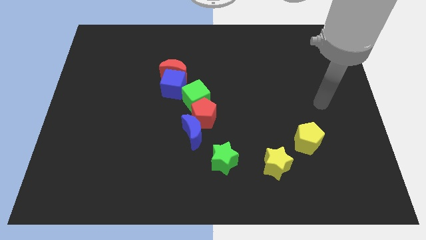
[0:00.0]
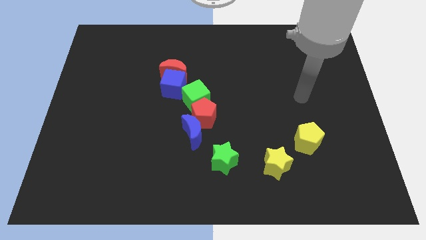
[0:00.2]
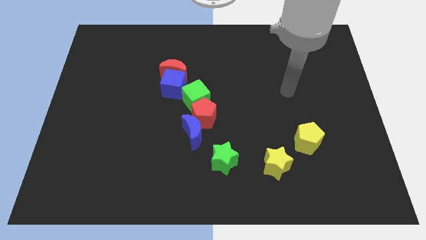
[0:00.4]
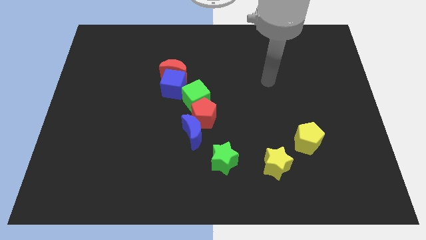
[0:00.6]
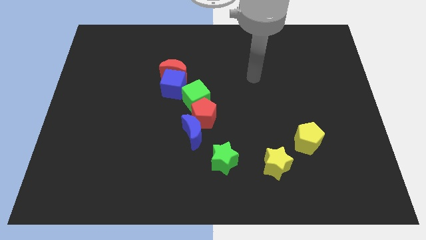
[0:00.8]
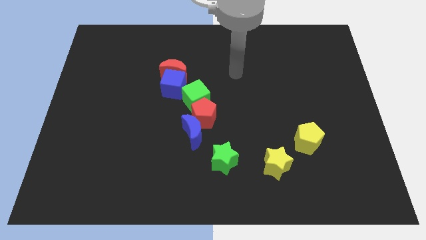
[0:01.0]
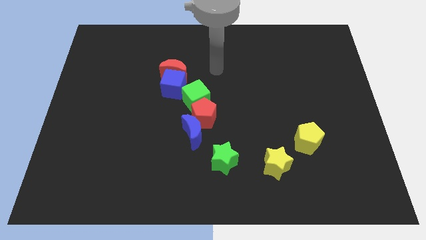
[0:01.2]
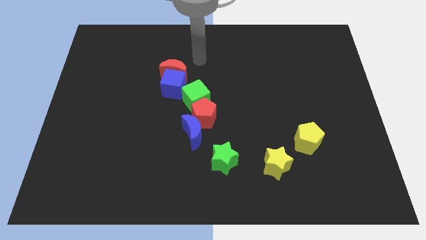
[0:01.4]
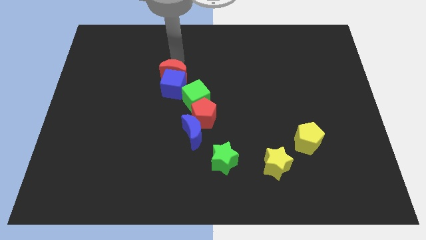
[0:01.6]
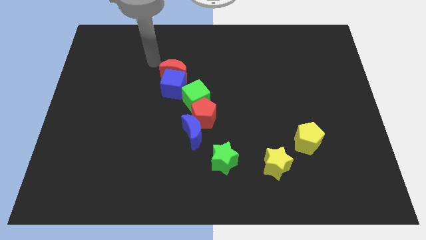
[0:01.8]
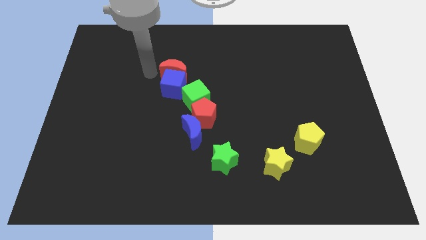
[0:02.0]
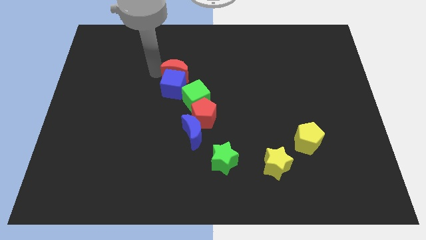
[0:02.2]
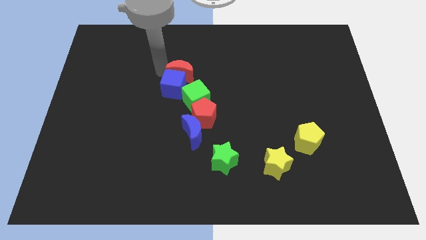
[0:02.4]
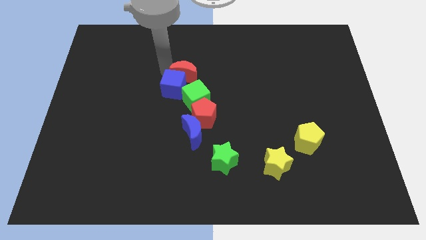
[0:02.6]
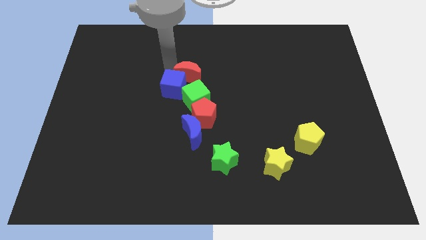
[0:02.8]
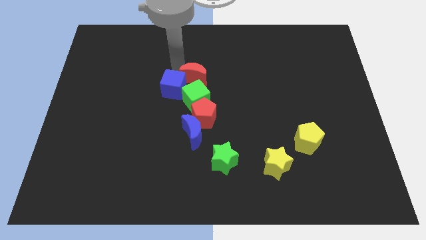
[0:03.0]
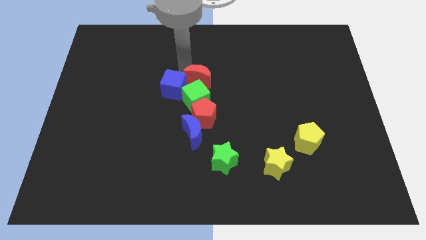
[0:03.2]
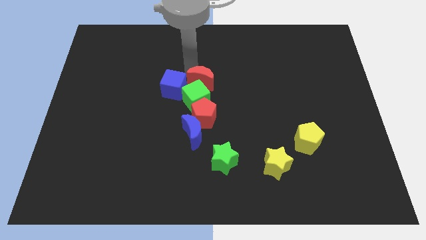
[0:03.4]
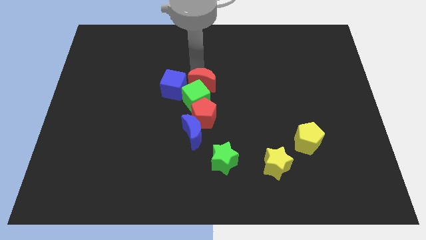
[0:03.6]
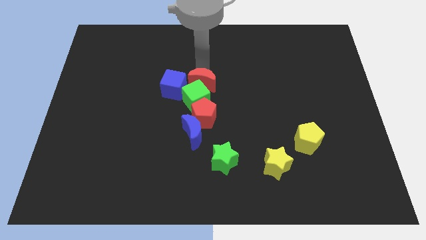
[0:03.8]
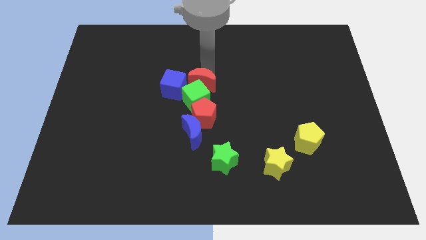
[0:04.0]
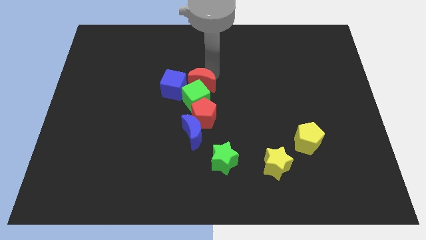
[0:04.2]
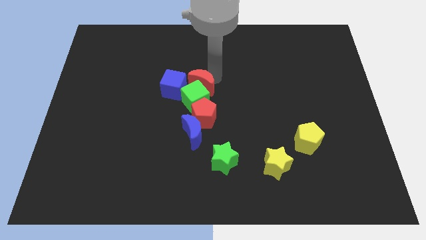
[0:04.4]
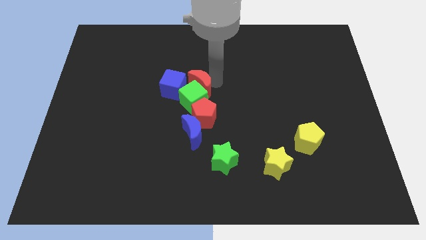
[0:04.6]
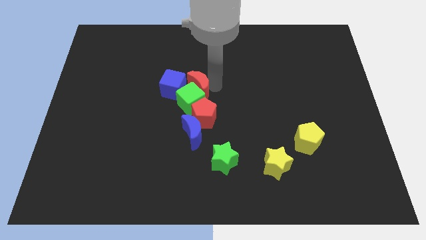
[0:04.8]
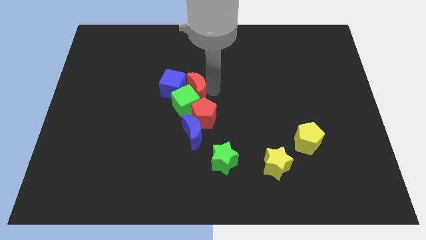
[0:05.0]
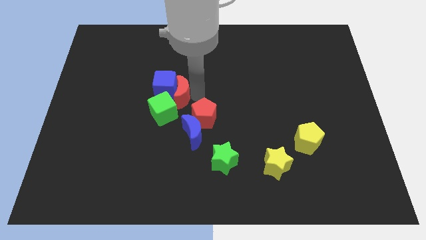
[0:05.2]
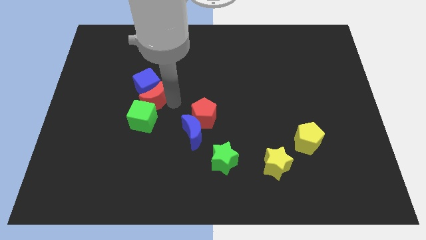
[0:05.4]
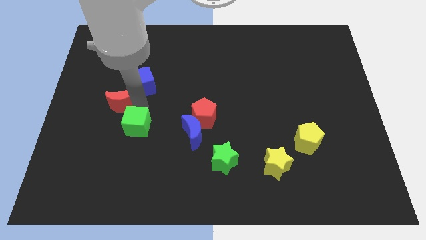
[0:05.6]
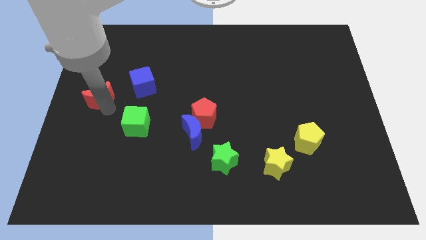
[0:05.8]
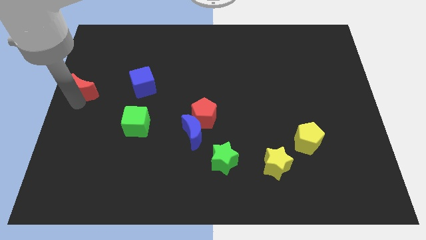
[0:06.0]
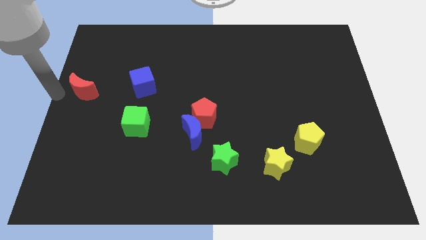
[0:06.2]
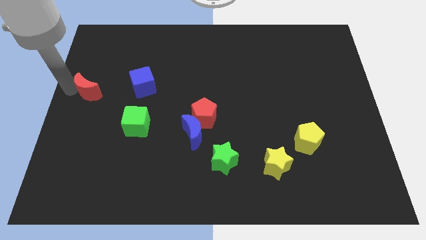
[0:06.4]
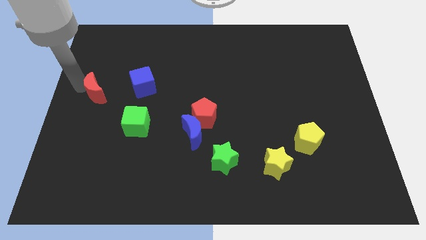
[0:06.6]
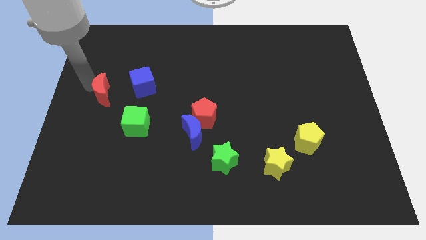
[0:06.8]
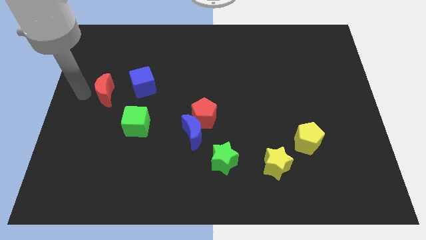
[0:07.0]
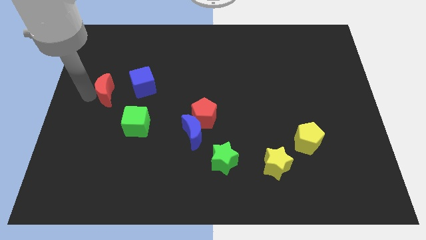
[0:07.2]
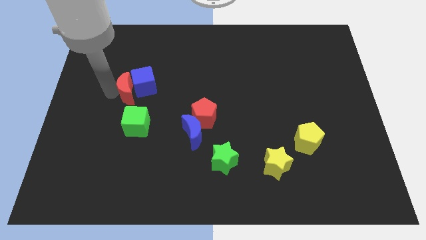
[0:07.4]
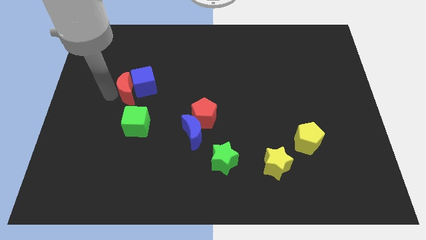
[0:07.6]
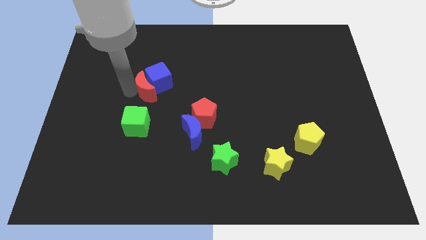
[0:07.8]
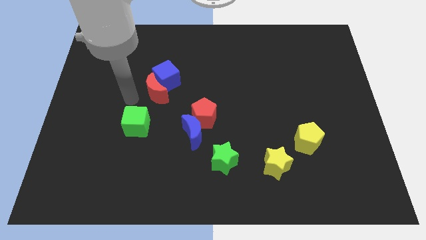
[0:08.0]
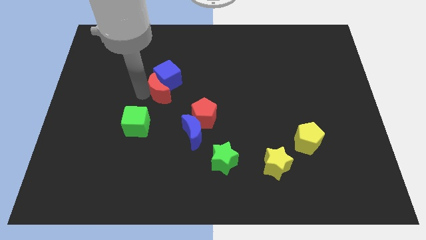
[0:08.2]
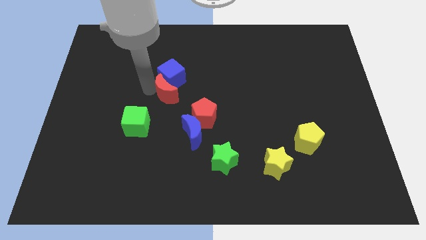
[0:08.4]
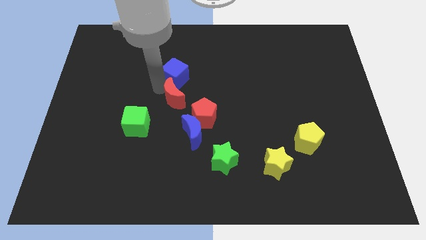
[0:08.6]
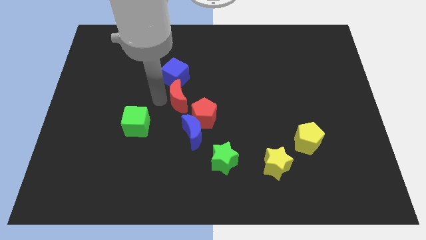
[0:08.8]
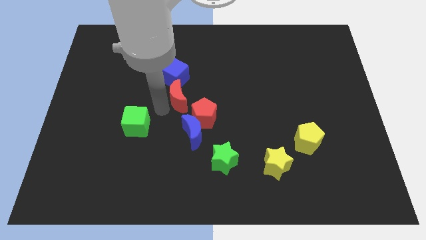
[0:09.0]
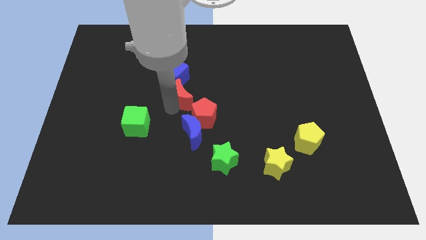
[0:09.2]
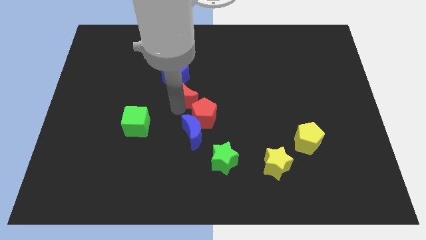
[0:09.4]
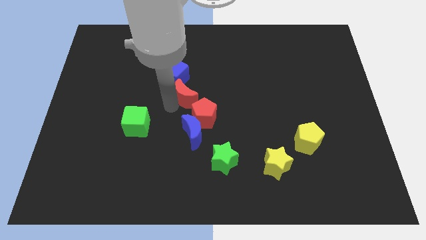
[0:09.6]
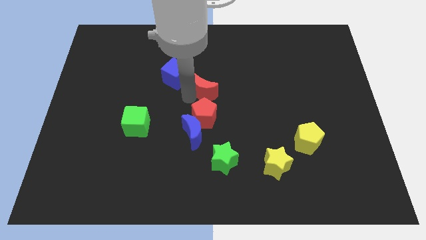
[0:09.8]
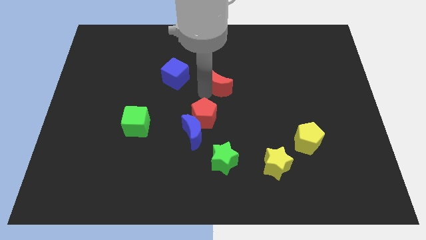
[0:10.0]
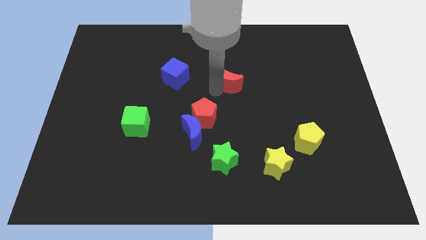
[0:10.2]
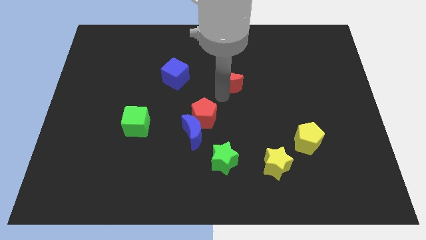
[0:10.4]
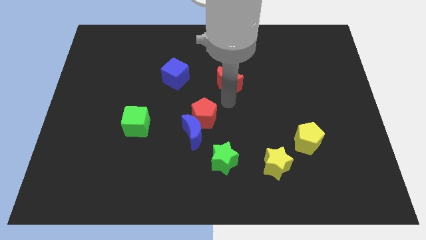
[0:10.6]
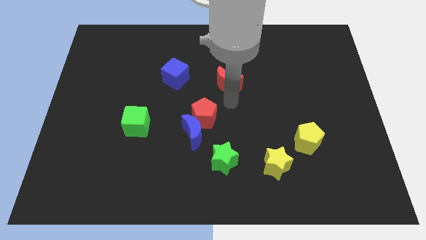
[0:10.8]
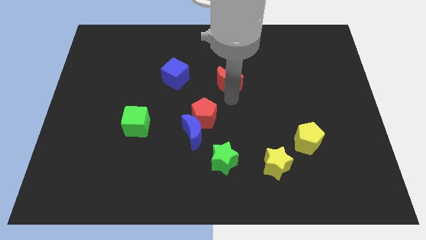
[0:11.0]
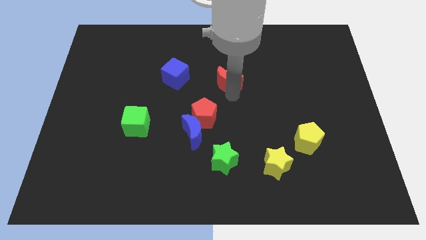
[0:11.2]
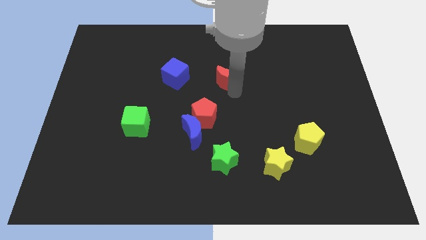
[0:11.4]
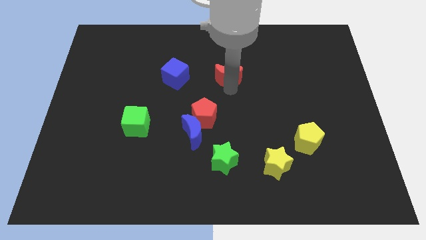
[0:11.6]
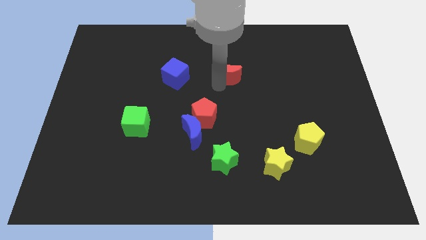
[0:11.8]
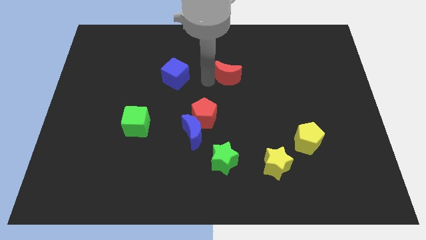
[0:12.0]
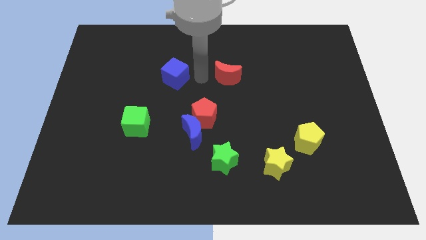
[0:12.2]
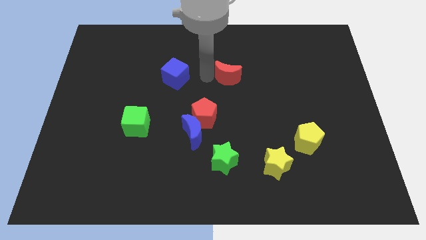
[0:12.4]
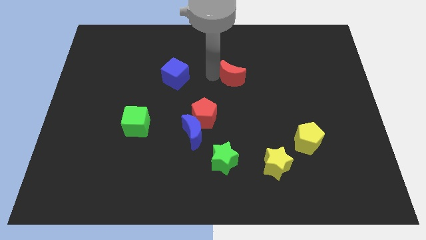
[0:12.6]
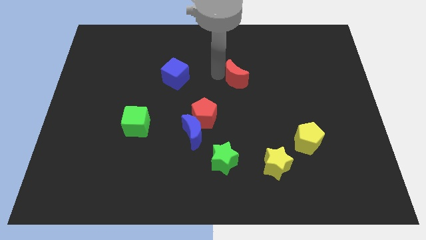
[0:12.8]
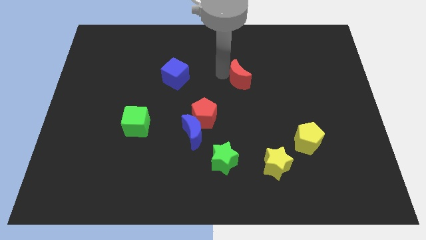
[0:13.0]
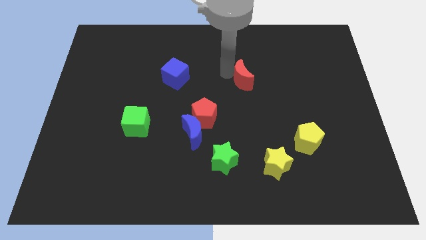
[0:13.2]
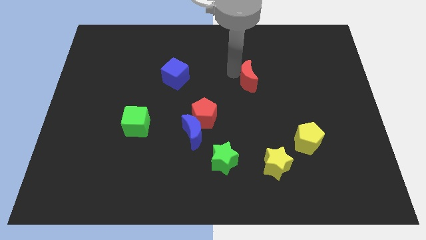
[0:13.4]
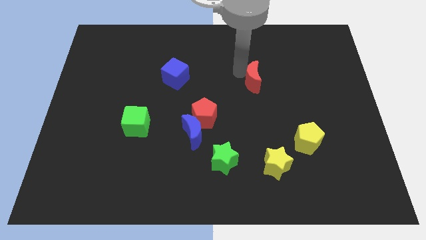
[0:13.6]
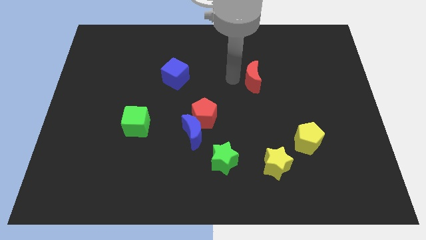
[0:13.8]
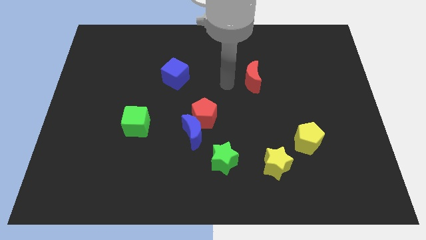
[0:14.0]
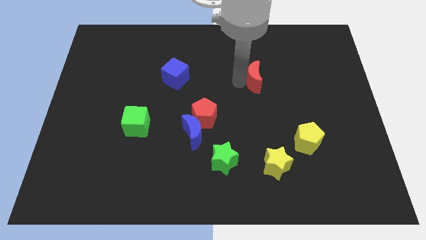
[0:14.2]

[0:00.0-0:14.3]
slide the red moon right

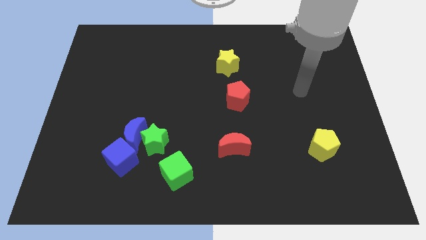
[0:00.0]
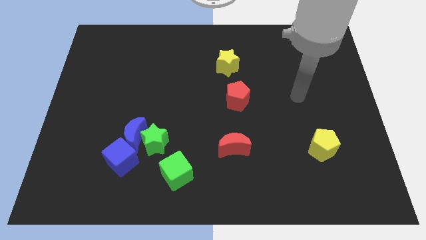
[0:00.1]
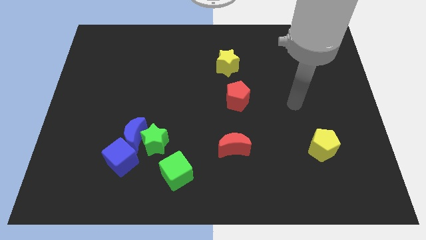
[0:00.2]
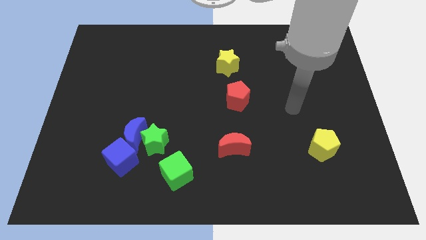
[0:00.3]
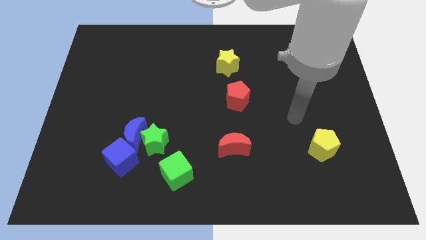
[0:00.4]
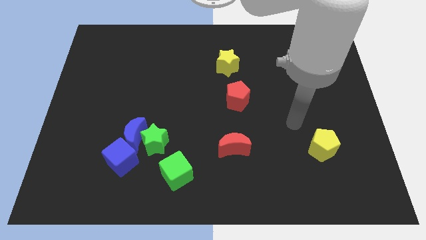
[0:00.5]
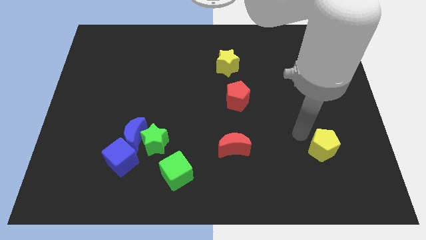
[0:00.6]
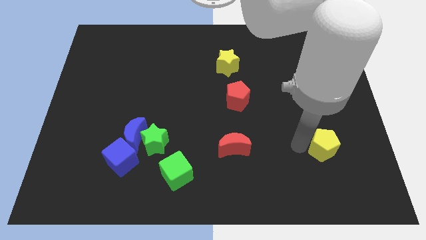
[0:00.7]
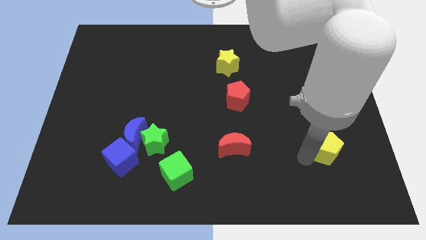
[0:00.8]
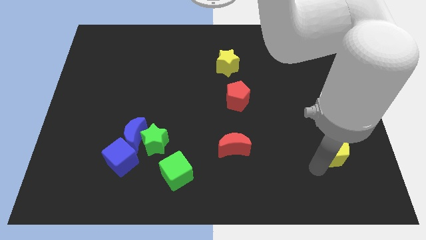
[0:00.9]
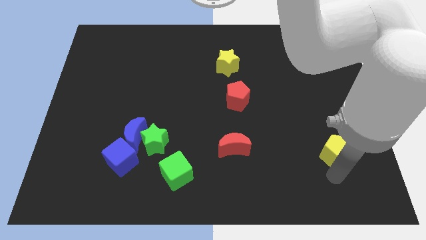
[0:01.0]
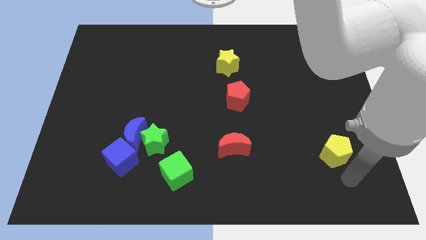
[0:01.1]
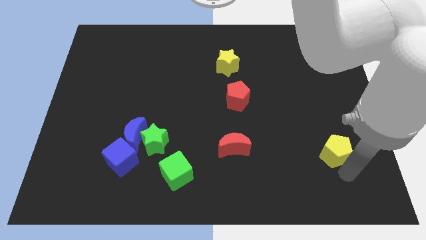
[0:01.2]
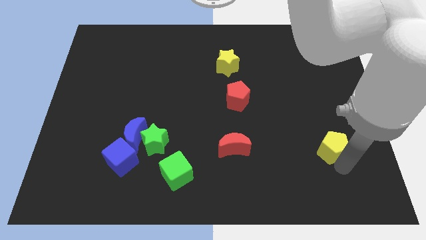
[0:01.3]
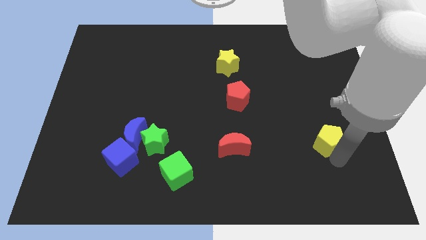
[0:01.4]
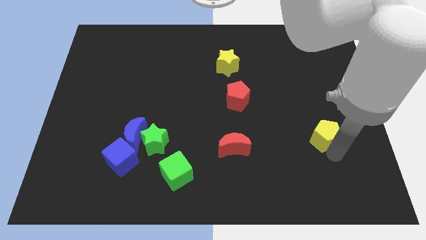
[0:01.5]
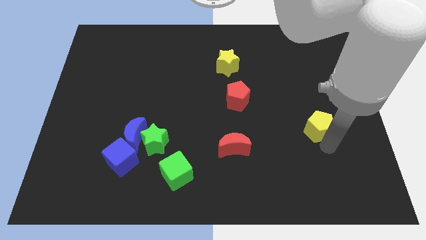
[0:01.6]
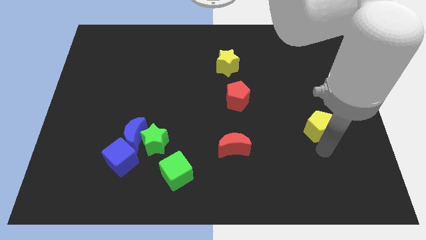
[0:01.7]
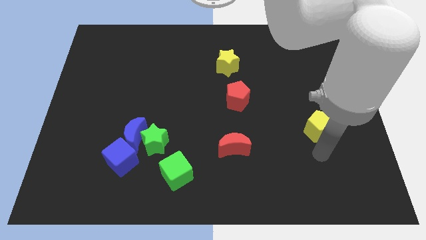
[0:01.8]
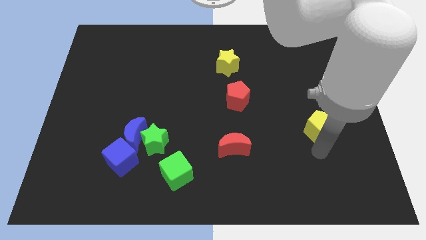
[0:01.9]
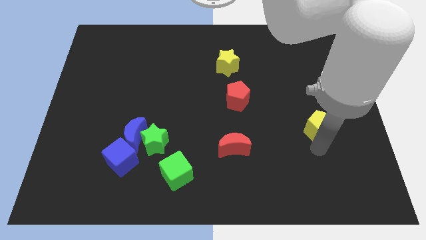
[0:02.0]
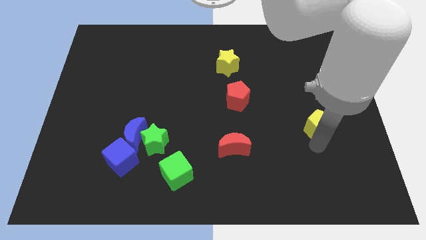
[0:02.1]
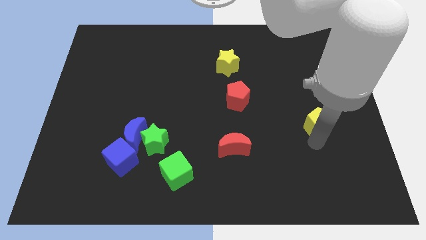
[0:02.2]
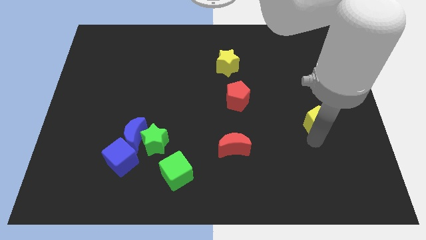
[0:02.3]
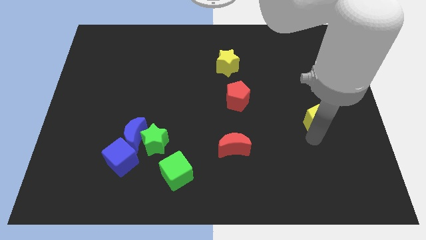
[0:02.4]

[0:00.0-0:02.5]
push the yellow pentagon up somewhat
